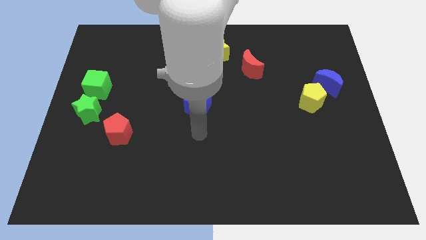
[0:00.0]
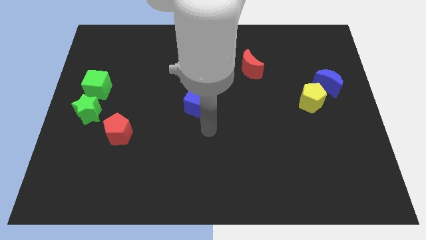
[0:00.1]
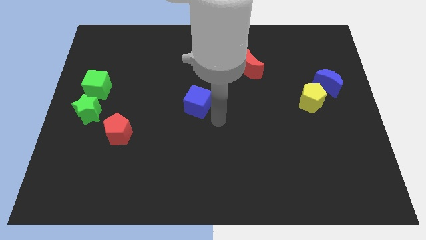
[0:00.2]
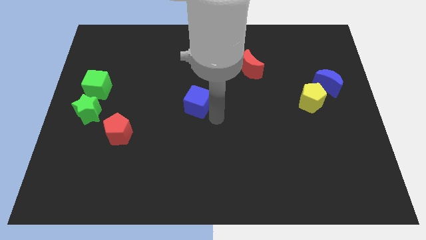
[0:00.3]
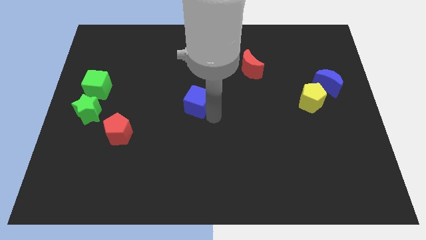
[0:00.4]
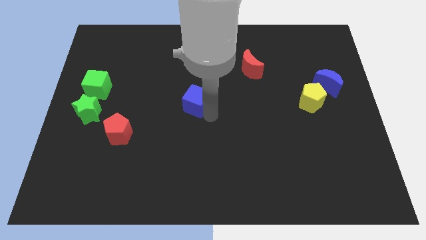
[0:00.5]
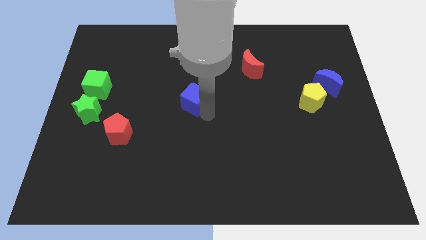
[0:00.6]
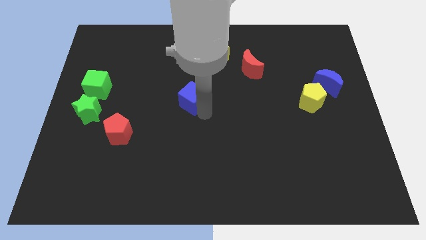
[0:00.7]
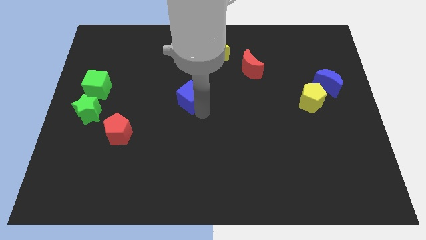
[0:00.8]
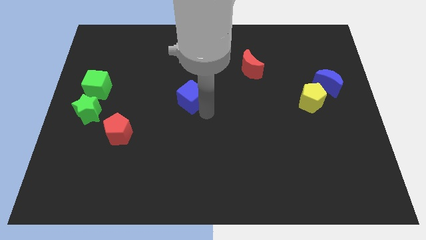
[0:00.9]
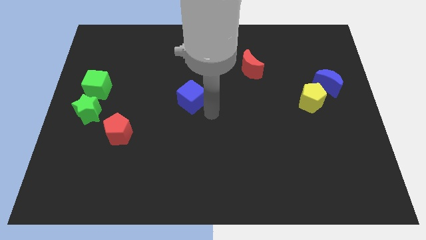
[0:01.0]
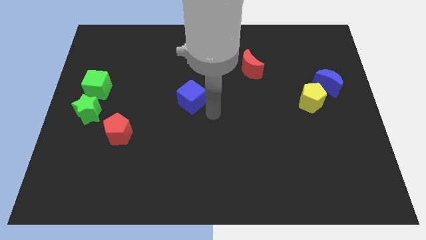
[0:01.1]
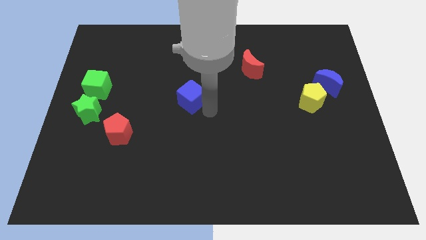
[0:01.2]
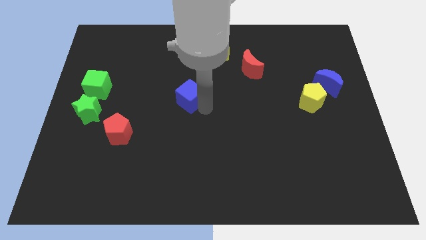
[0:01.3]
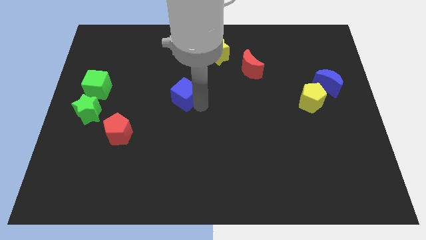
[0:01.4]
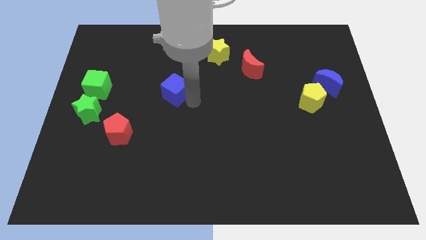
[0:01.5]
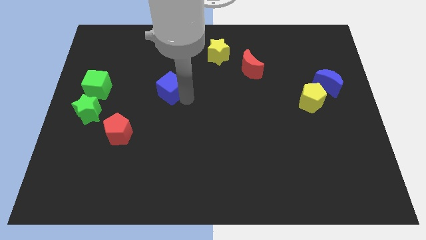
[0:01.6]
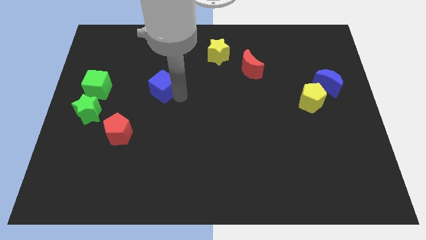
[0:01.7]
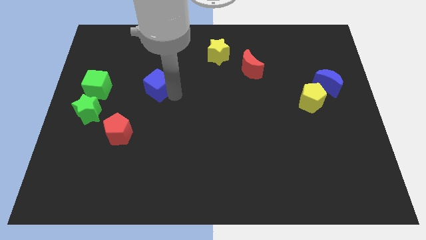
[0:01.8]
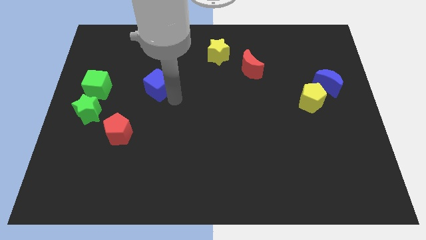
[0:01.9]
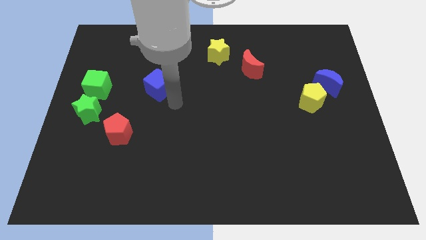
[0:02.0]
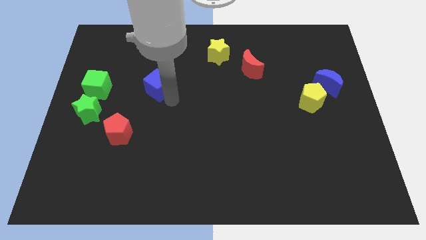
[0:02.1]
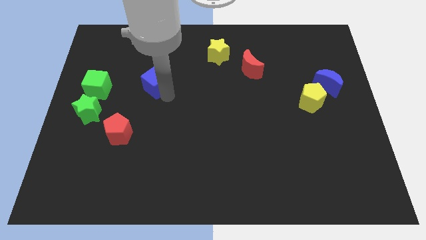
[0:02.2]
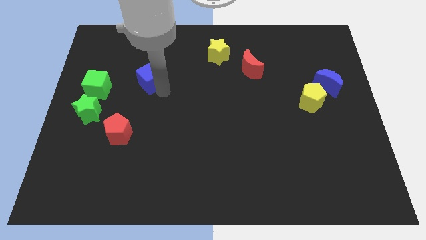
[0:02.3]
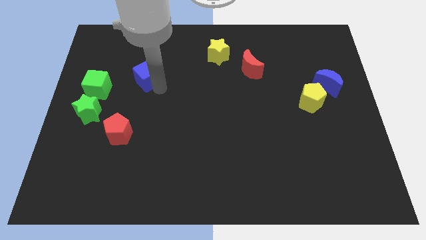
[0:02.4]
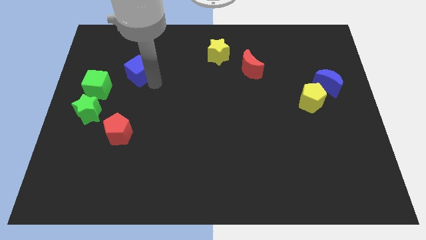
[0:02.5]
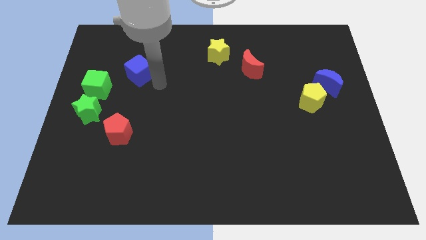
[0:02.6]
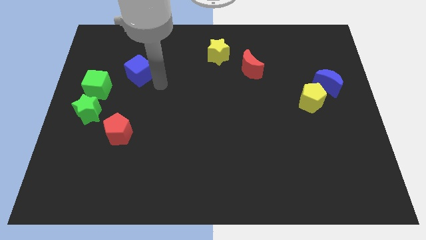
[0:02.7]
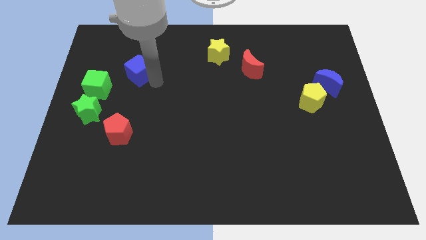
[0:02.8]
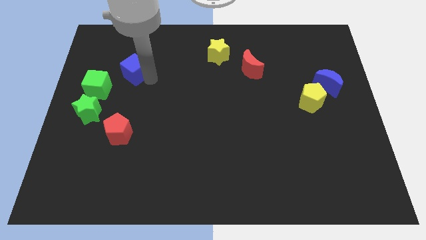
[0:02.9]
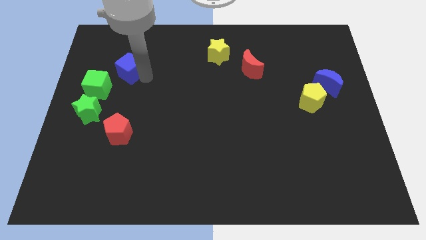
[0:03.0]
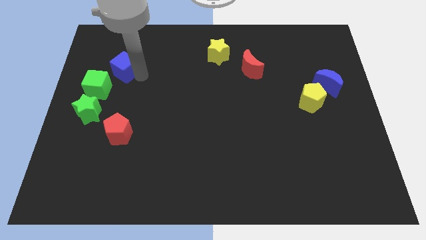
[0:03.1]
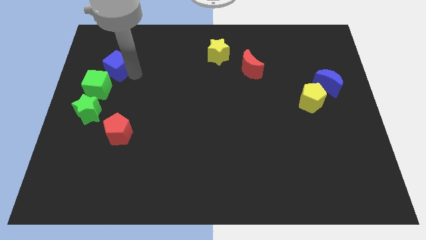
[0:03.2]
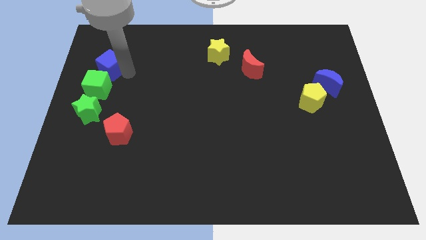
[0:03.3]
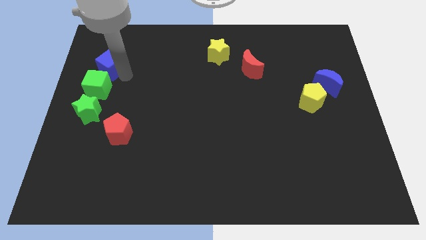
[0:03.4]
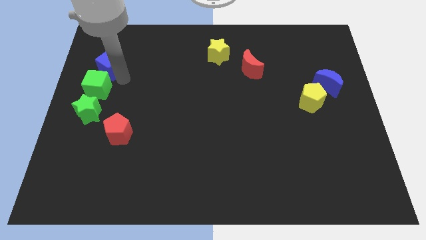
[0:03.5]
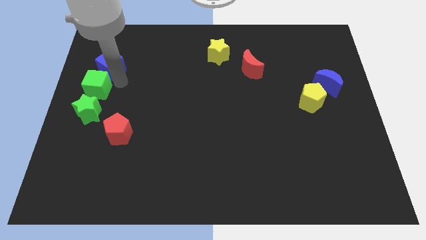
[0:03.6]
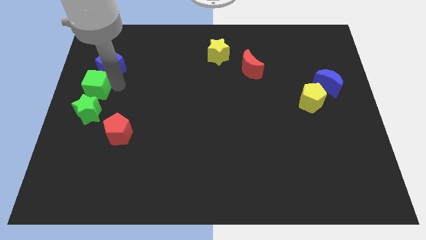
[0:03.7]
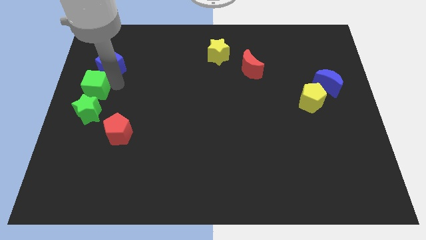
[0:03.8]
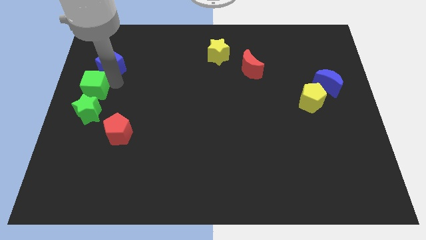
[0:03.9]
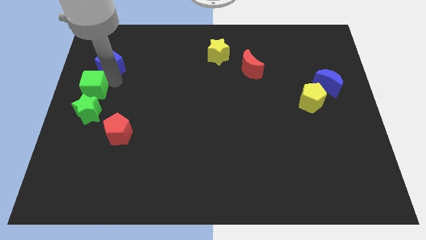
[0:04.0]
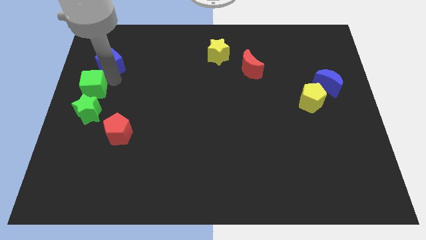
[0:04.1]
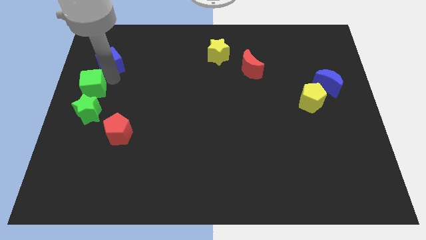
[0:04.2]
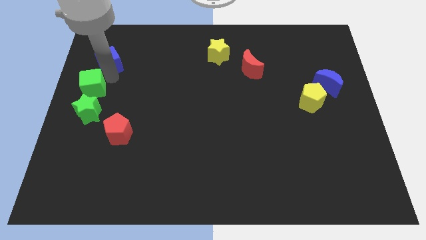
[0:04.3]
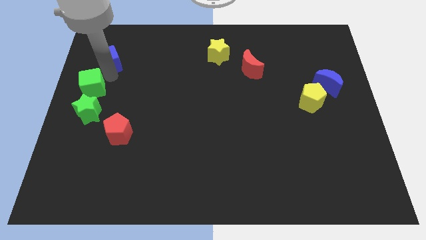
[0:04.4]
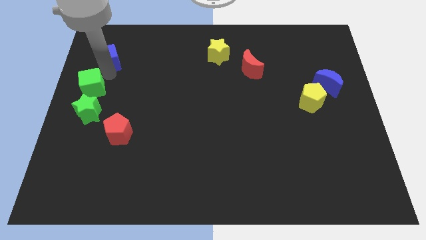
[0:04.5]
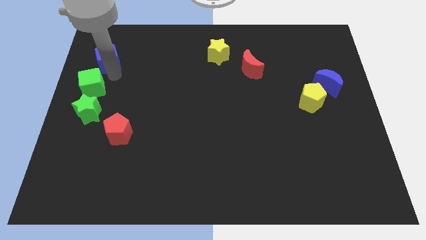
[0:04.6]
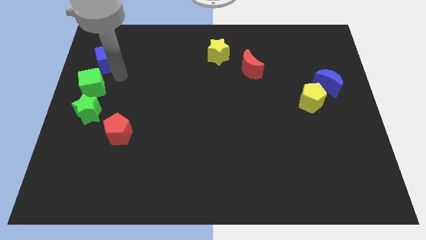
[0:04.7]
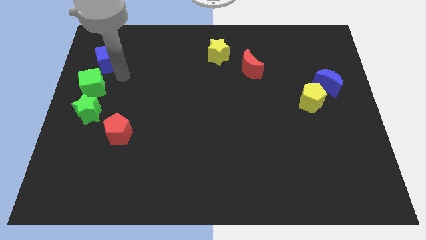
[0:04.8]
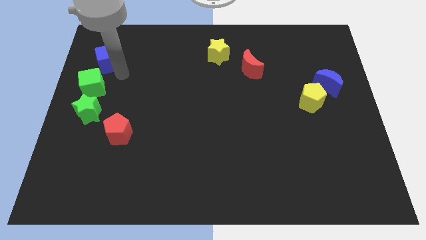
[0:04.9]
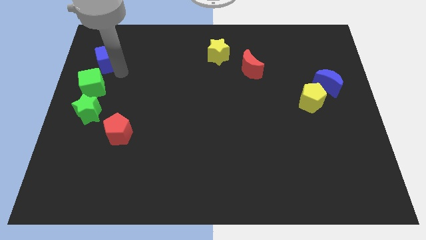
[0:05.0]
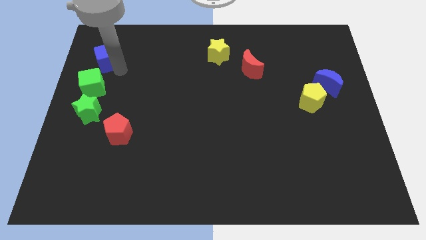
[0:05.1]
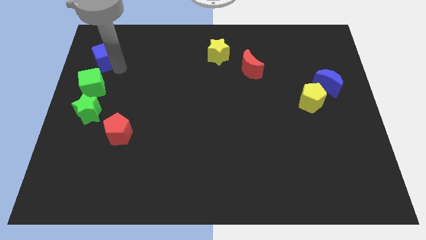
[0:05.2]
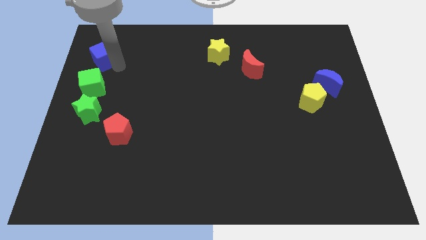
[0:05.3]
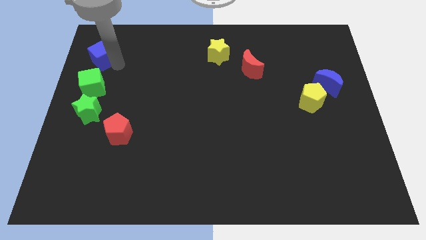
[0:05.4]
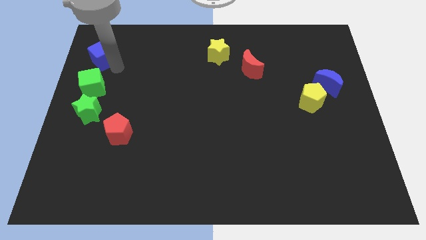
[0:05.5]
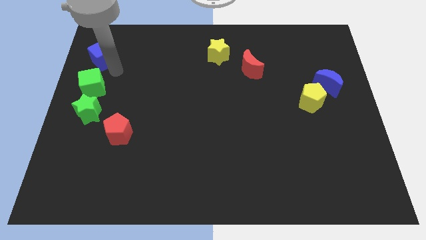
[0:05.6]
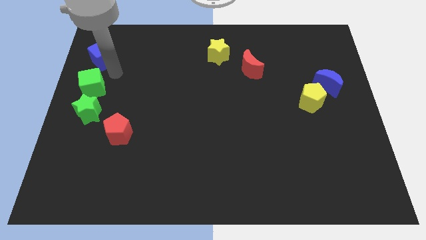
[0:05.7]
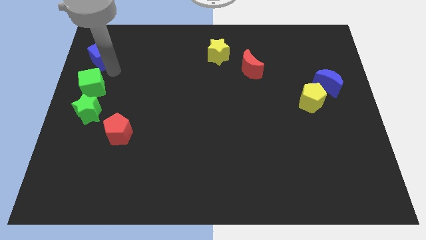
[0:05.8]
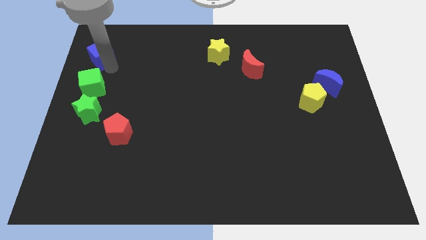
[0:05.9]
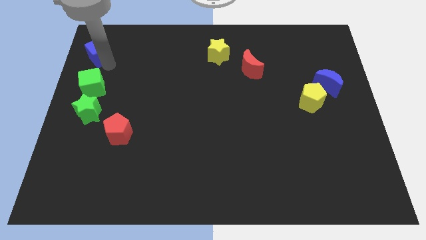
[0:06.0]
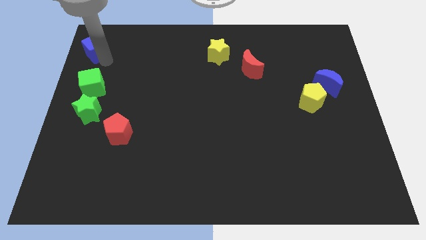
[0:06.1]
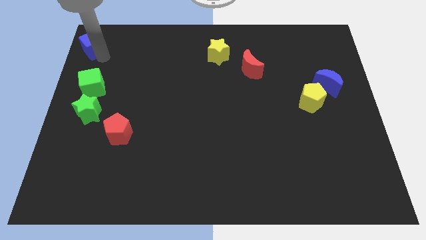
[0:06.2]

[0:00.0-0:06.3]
push the blue cube to the top left corner

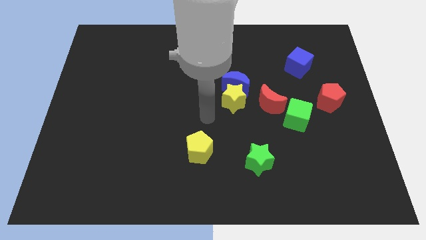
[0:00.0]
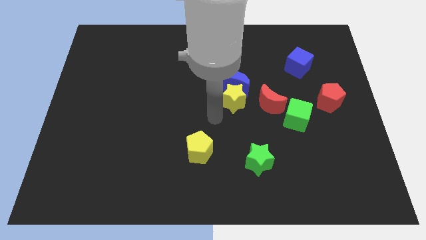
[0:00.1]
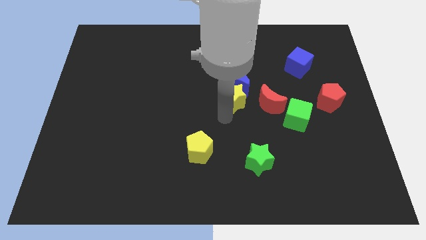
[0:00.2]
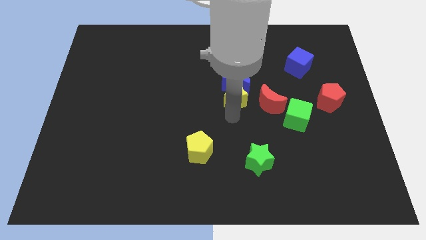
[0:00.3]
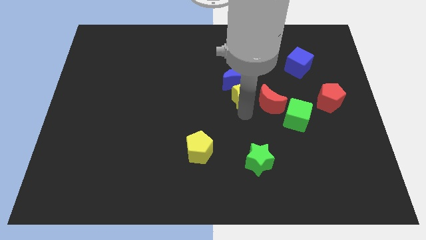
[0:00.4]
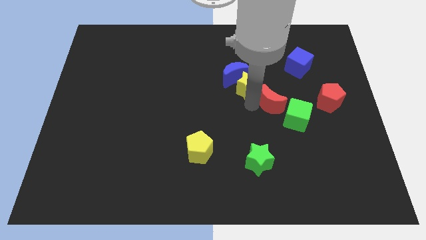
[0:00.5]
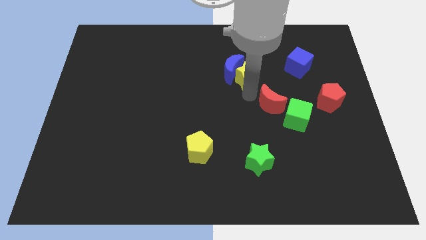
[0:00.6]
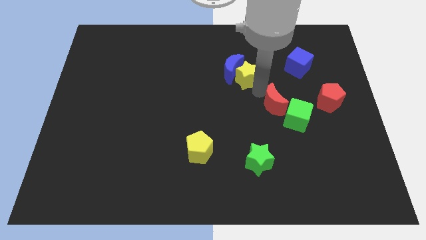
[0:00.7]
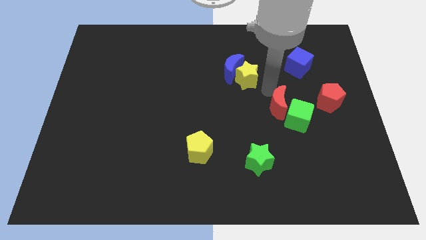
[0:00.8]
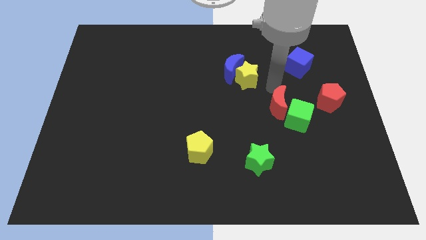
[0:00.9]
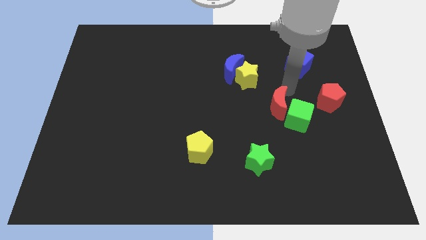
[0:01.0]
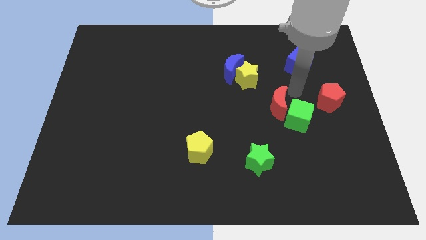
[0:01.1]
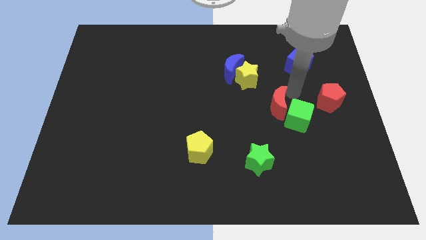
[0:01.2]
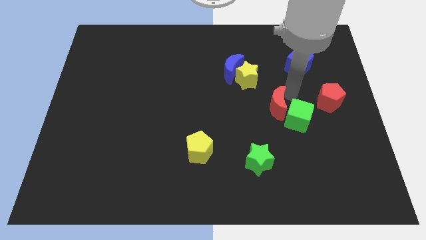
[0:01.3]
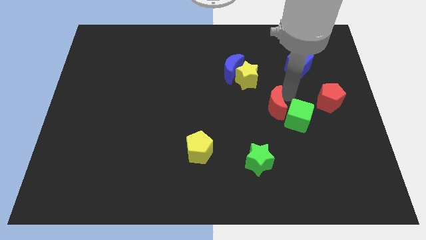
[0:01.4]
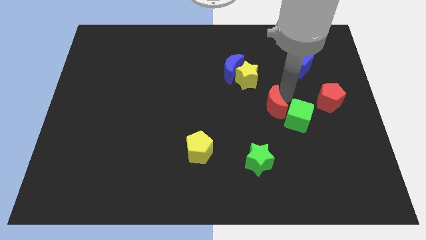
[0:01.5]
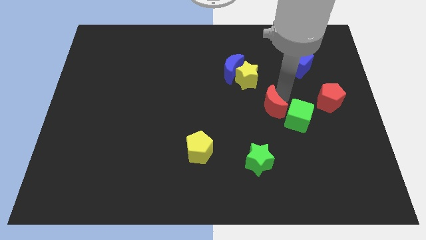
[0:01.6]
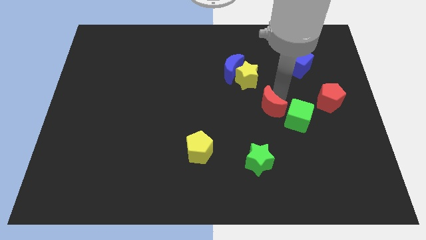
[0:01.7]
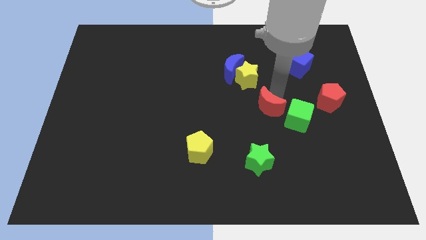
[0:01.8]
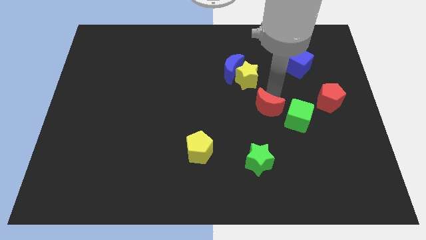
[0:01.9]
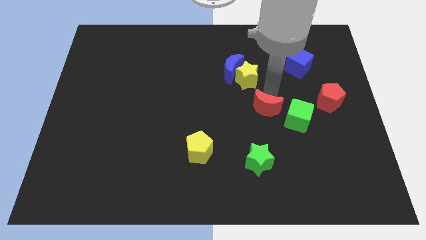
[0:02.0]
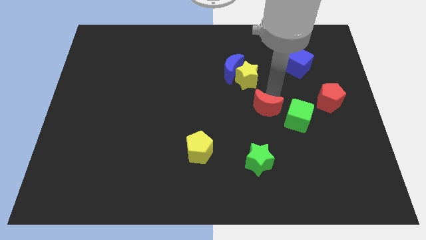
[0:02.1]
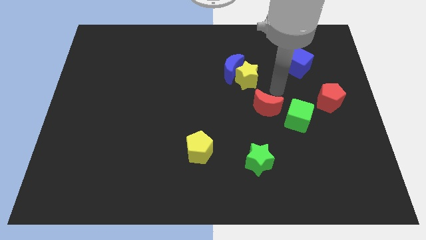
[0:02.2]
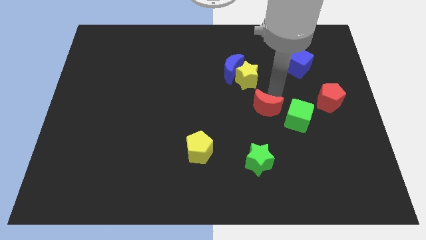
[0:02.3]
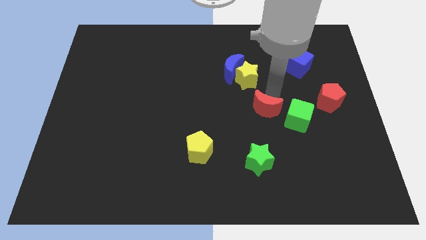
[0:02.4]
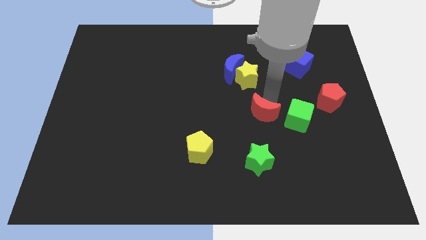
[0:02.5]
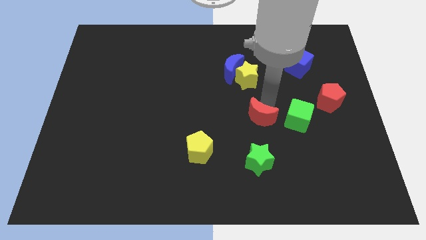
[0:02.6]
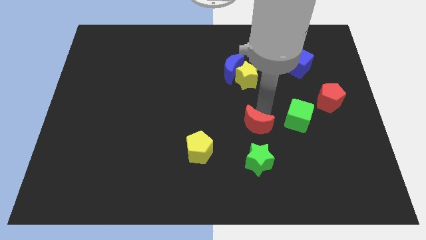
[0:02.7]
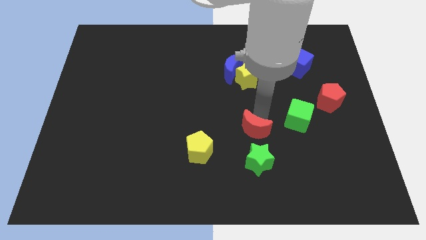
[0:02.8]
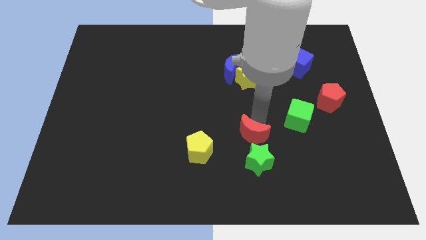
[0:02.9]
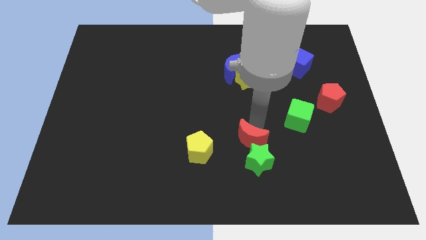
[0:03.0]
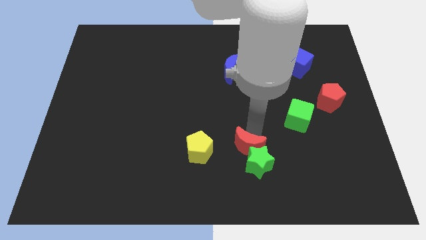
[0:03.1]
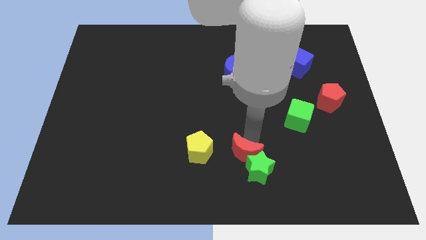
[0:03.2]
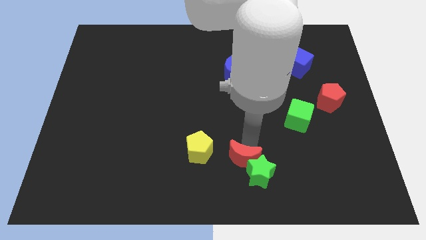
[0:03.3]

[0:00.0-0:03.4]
move the red moon to the bottom side
